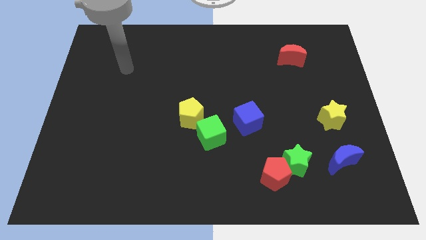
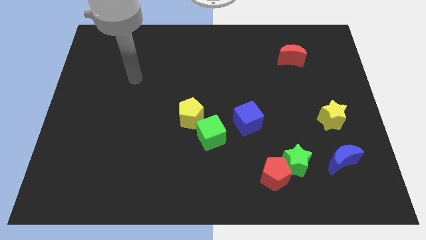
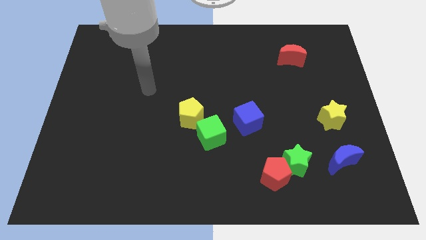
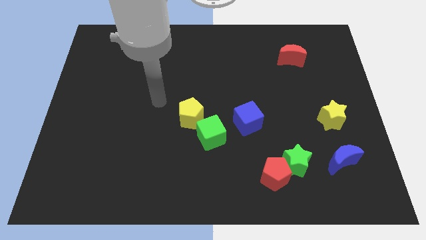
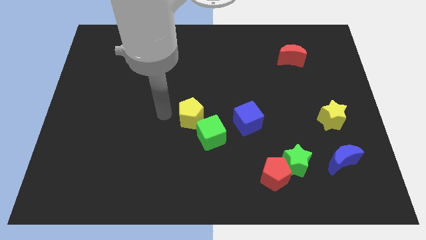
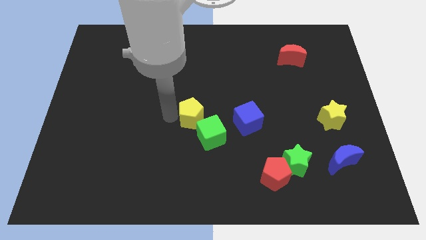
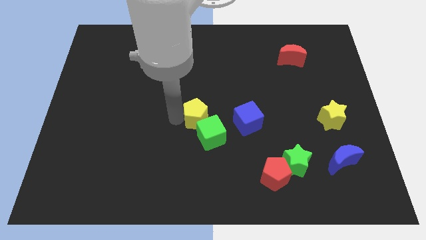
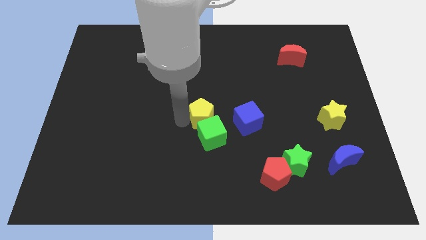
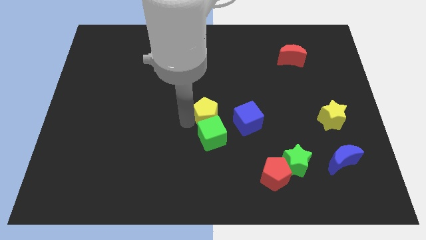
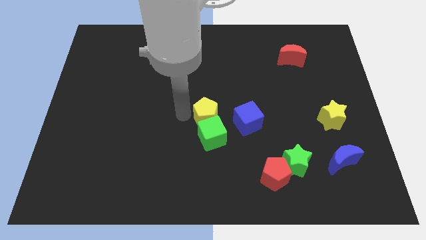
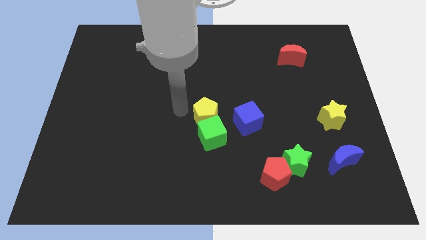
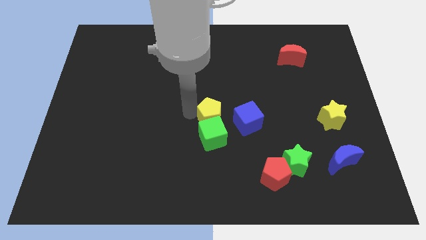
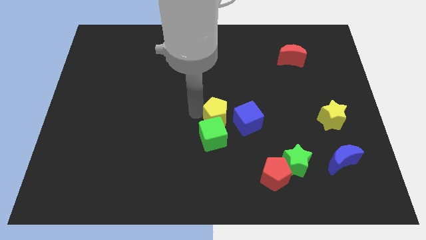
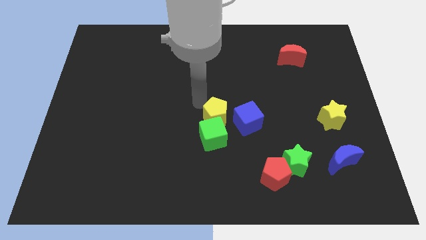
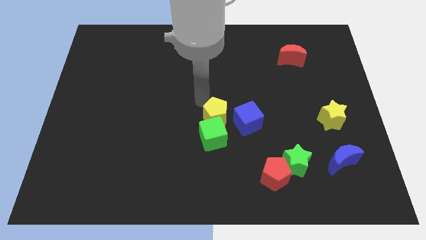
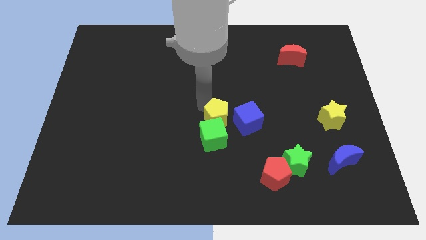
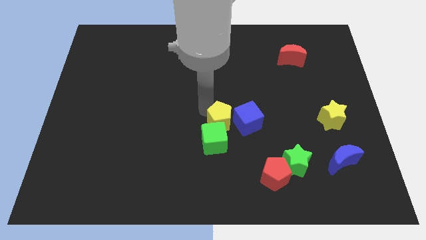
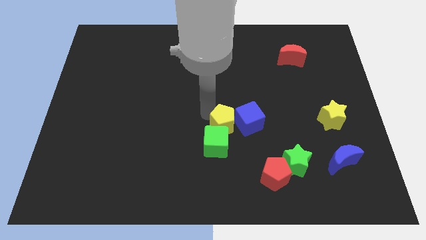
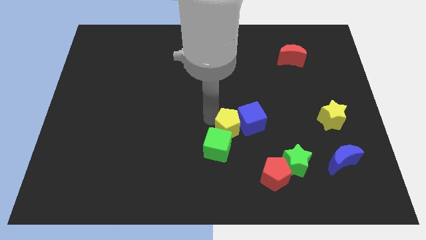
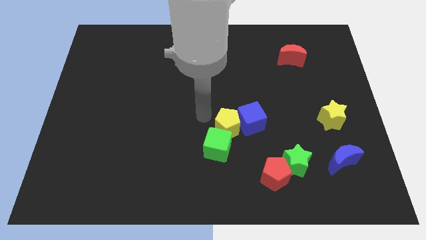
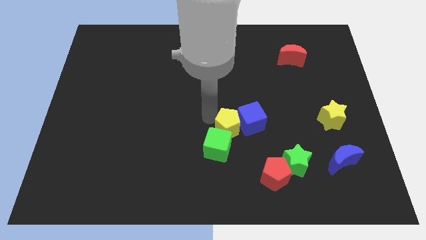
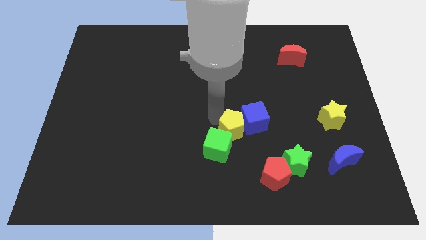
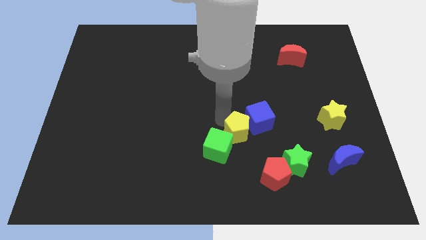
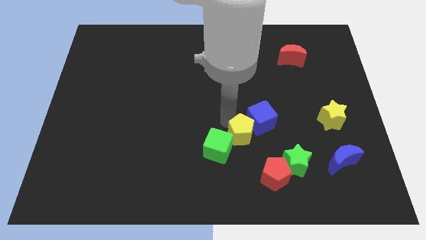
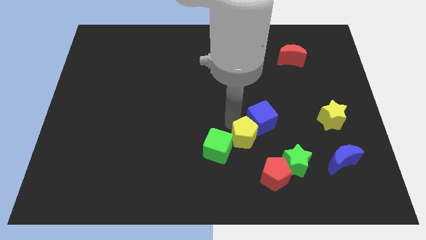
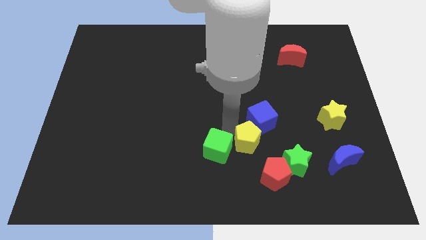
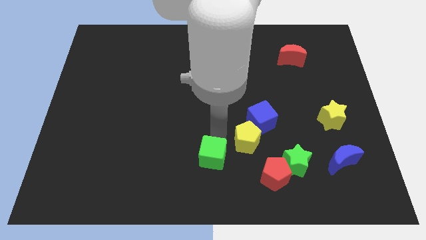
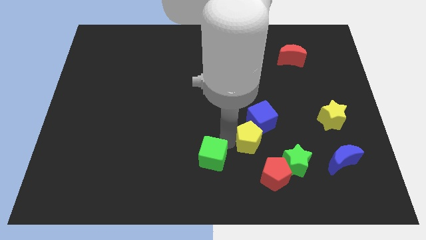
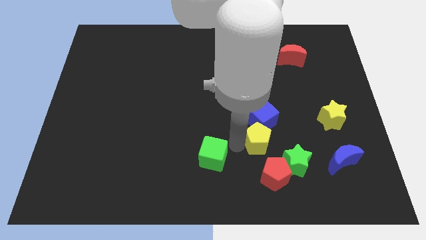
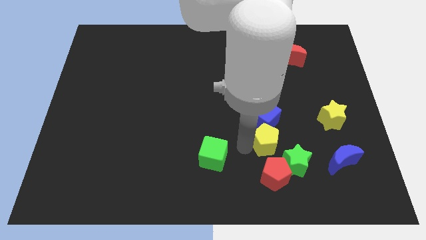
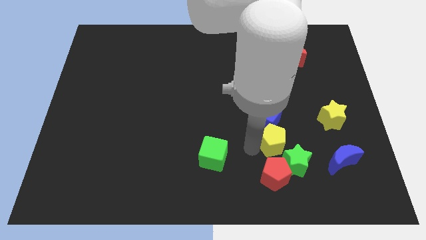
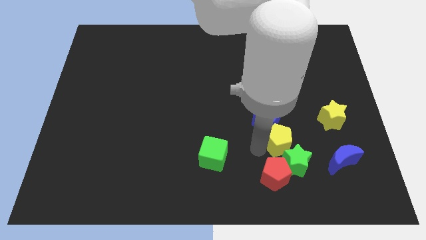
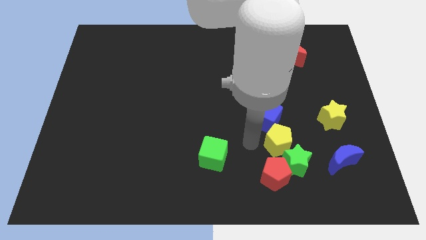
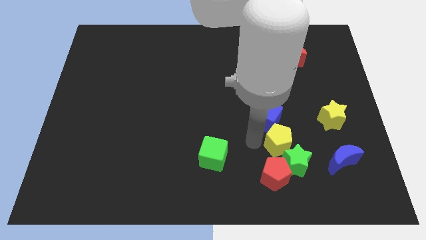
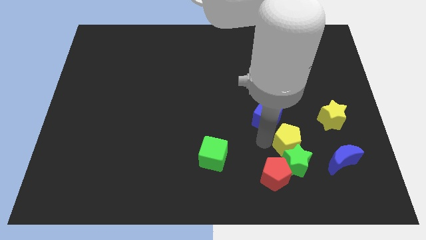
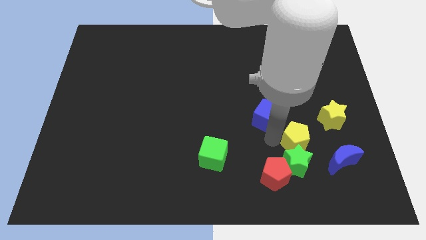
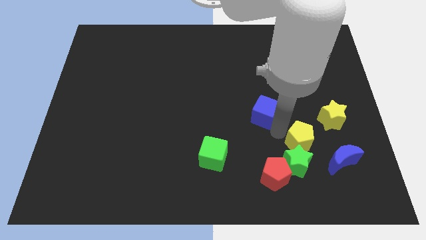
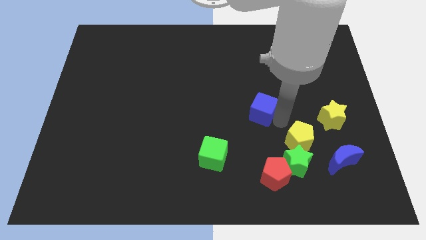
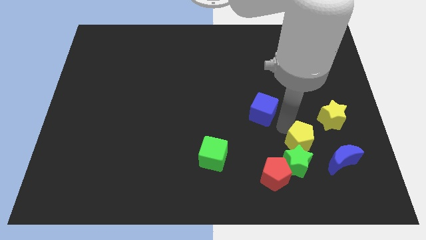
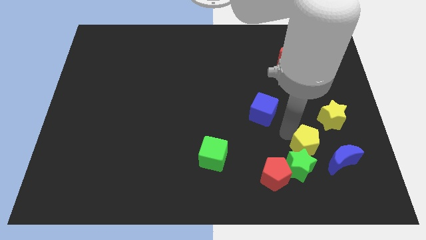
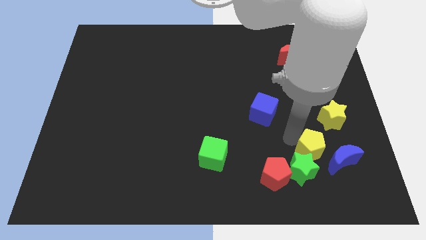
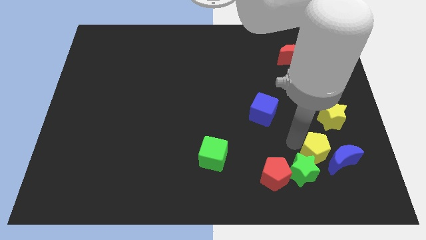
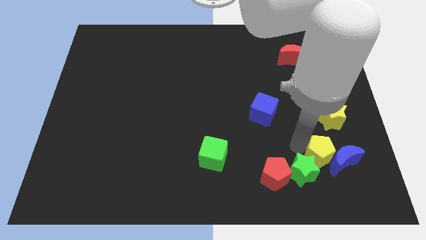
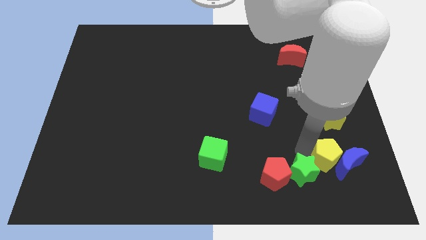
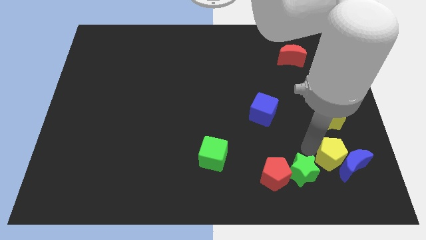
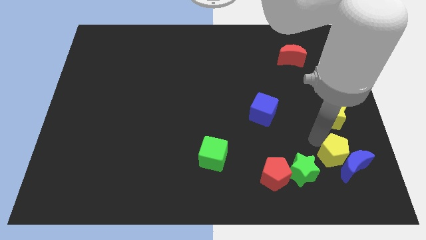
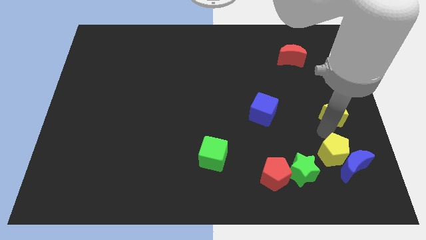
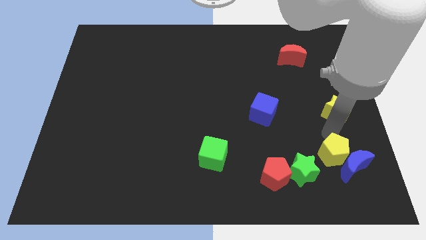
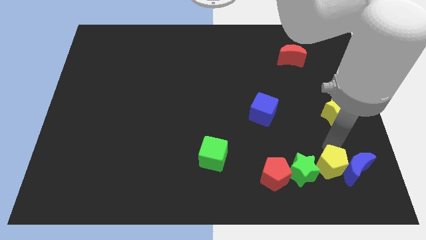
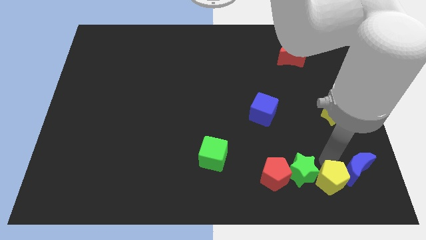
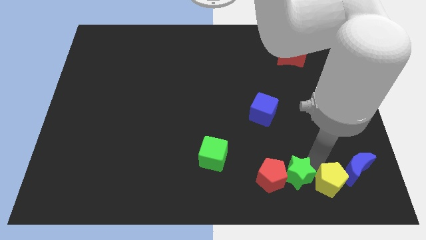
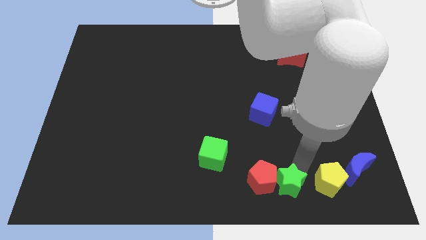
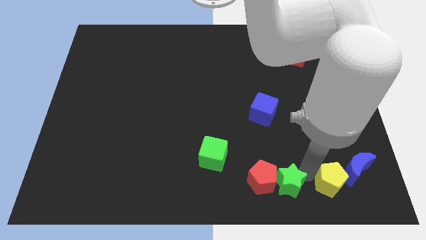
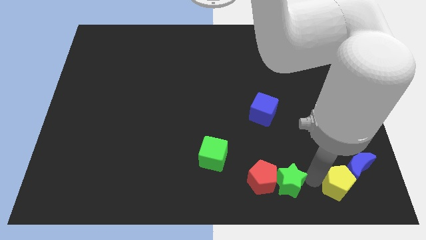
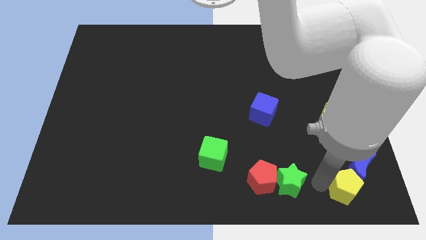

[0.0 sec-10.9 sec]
put the yellow pentagon to the bottom right of the board

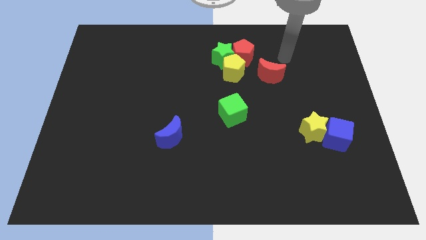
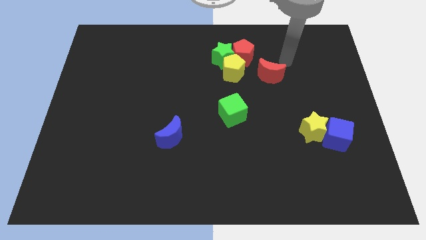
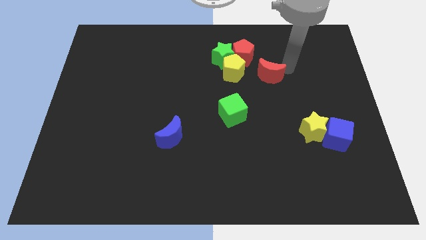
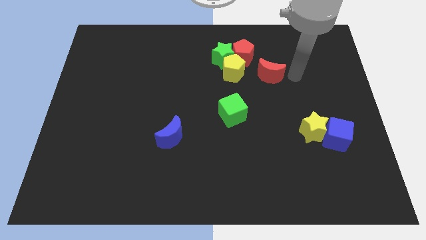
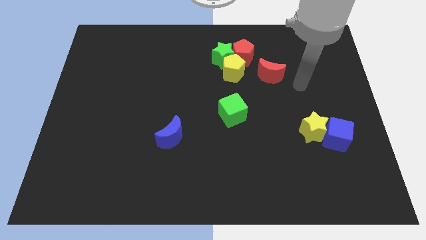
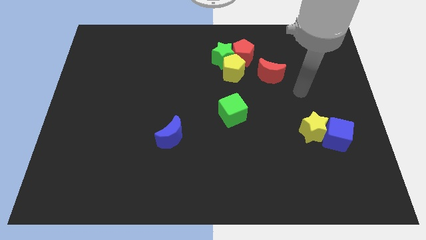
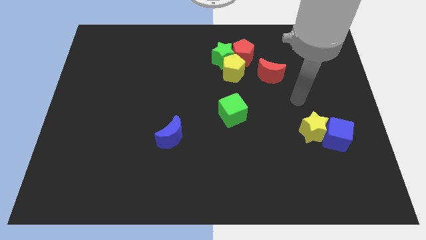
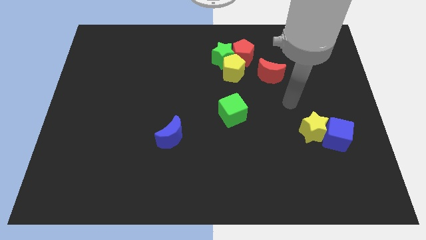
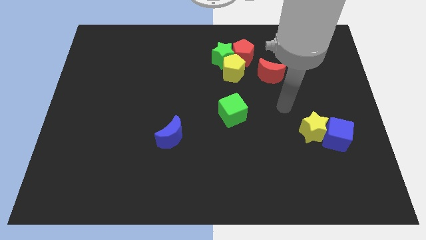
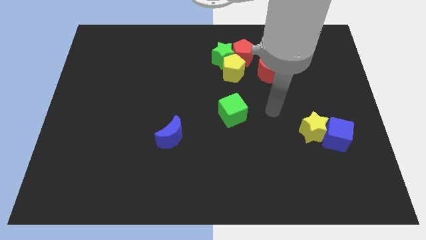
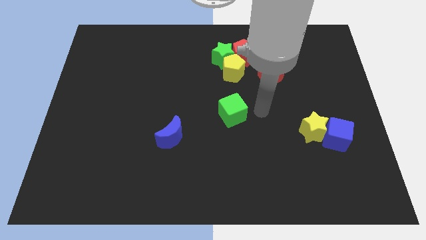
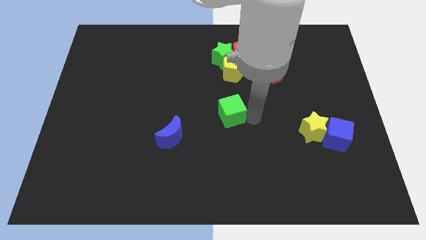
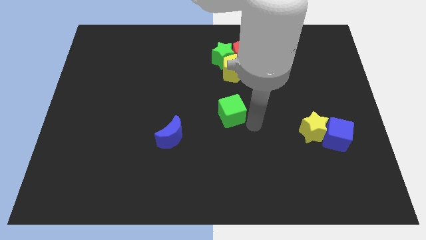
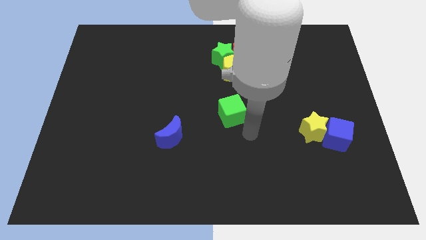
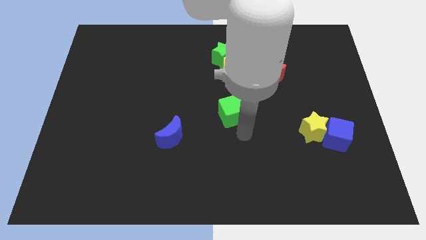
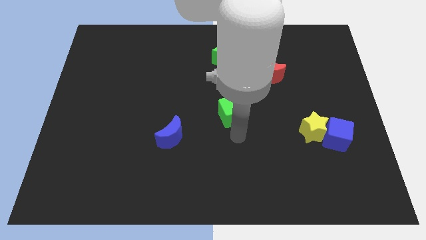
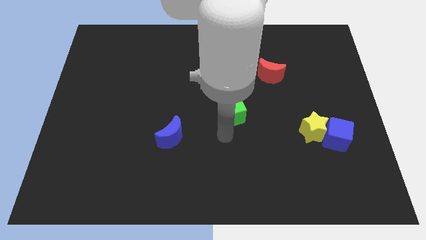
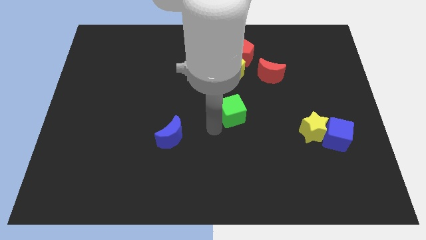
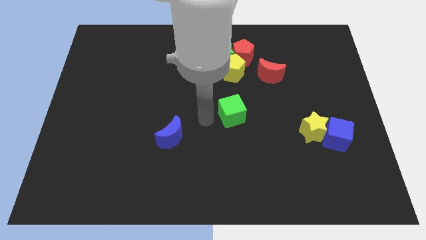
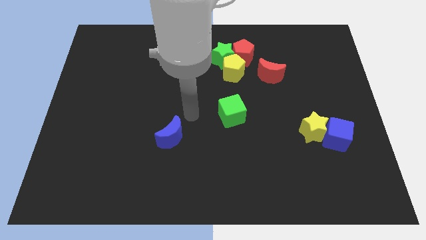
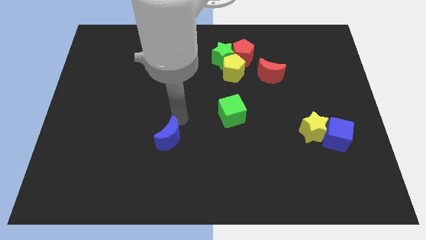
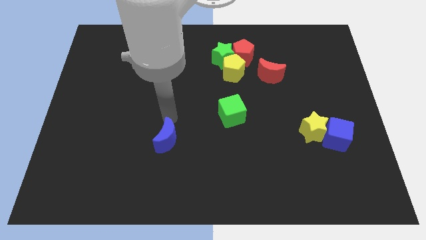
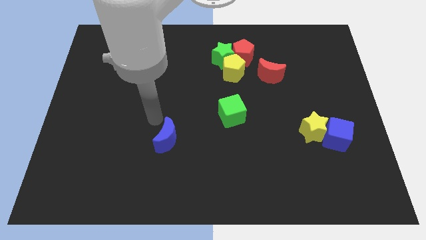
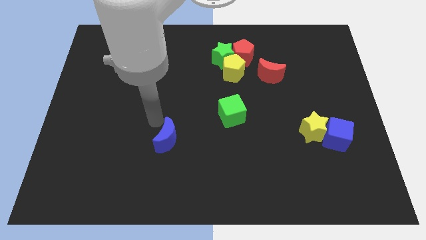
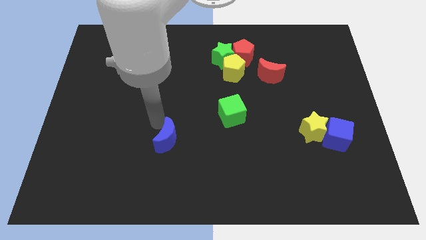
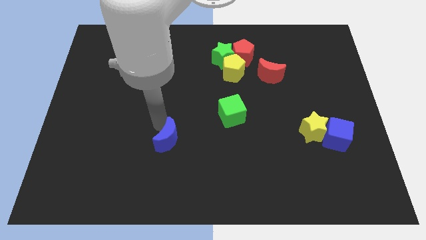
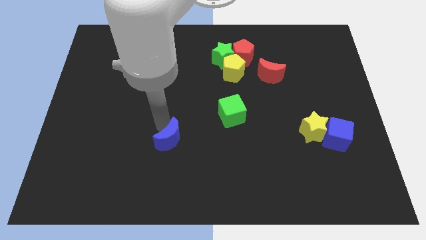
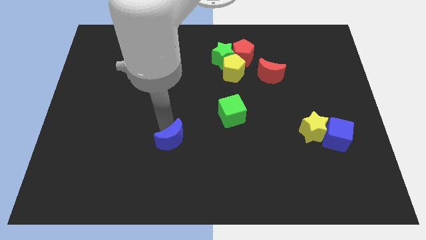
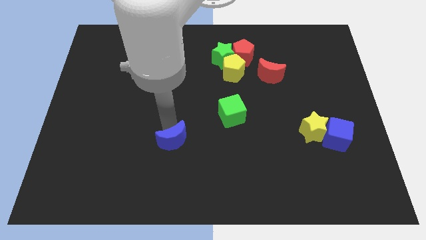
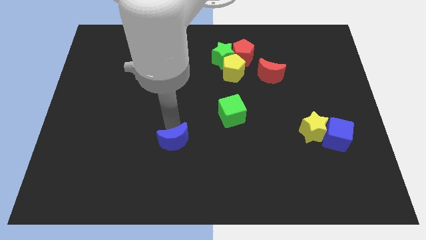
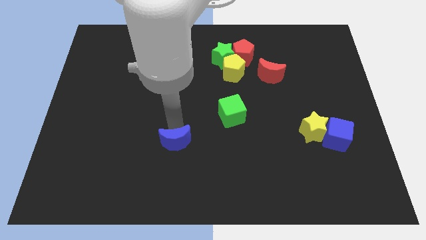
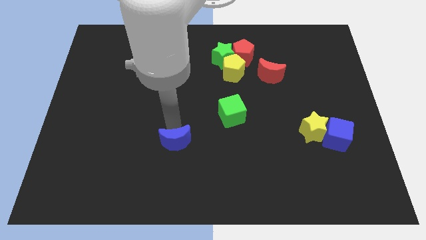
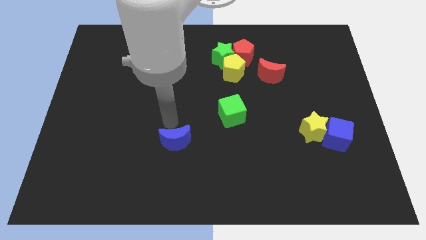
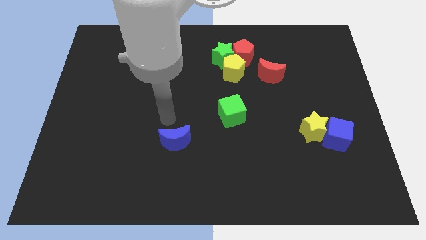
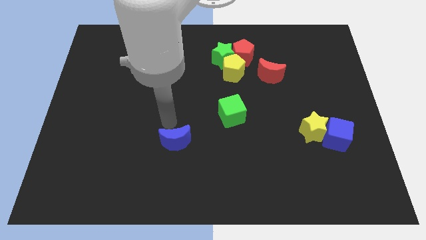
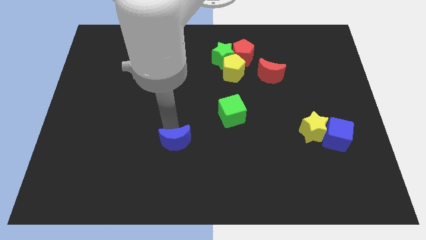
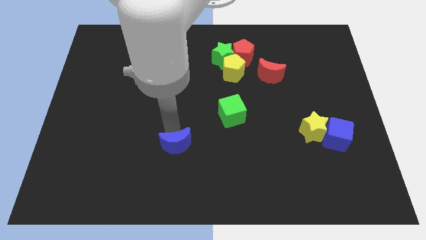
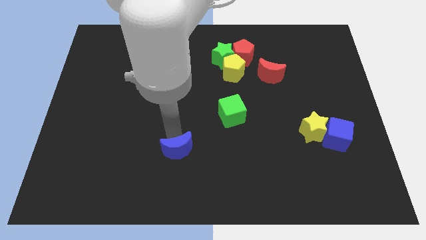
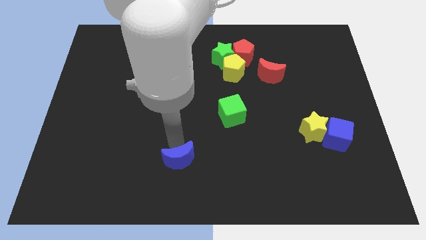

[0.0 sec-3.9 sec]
move the blue moon to the bottom side
